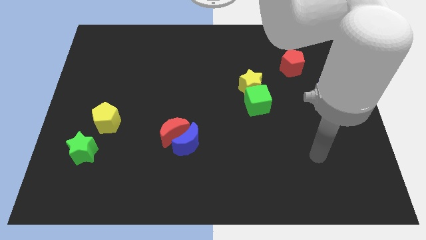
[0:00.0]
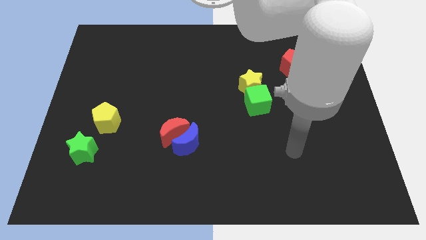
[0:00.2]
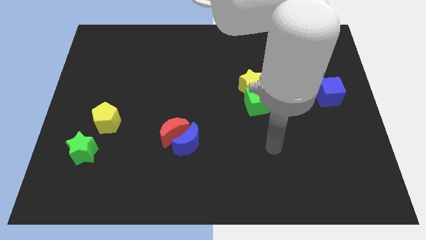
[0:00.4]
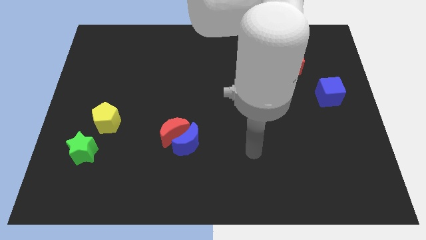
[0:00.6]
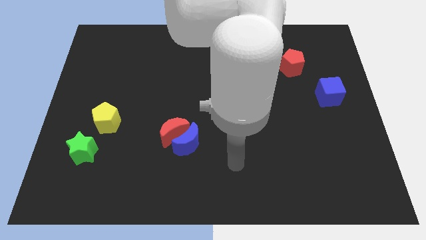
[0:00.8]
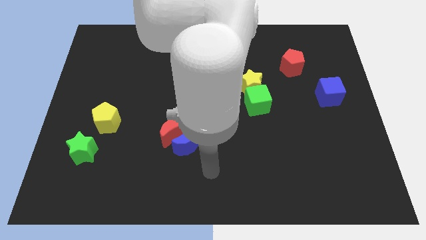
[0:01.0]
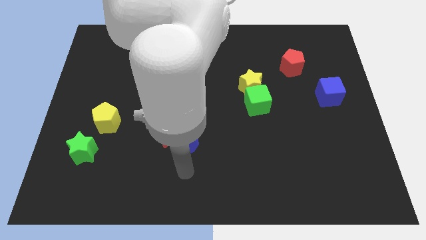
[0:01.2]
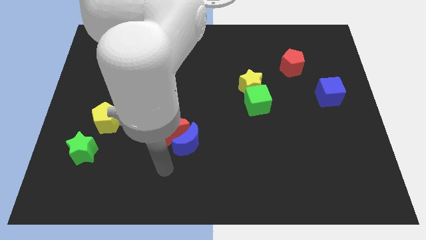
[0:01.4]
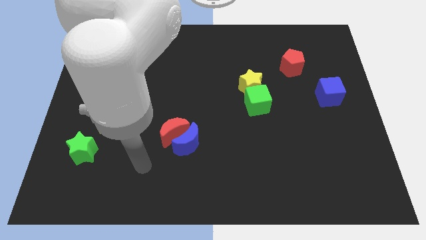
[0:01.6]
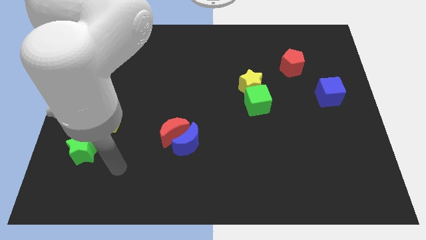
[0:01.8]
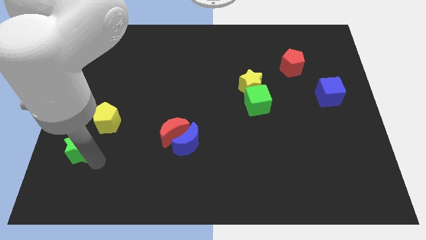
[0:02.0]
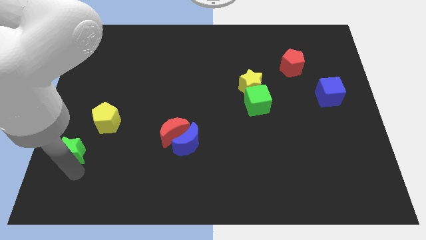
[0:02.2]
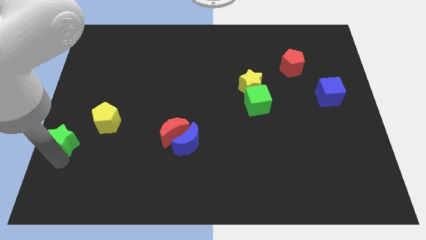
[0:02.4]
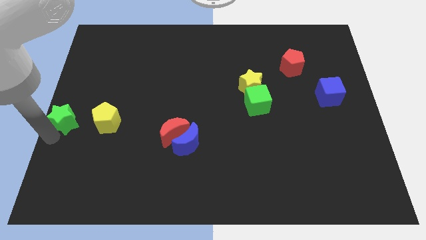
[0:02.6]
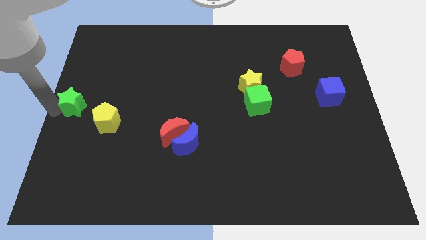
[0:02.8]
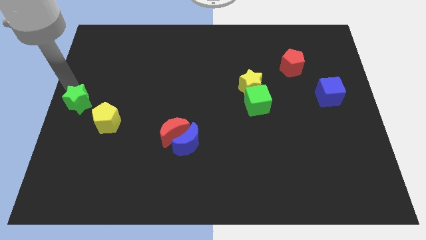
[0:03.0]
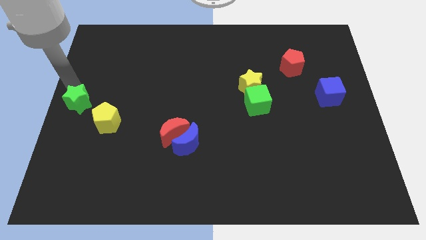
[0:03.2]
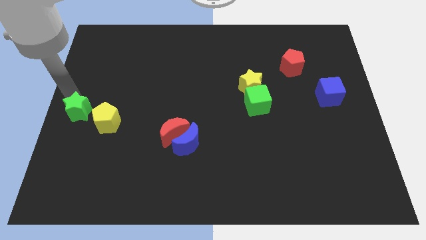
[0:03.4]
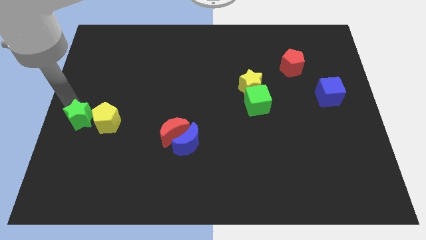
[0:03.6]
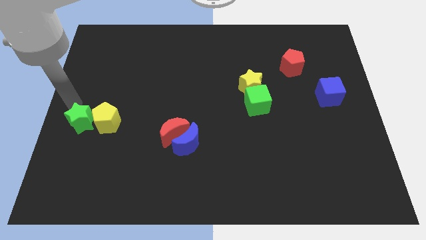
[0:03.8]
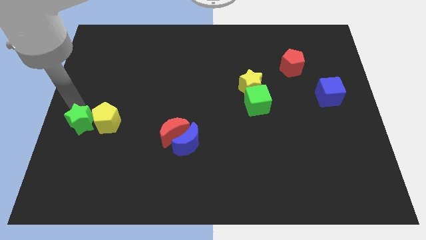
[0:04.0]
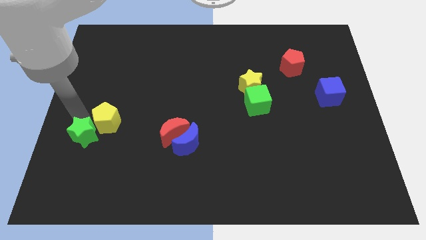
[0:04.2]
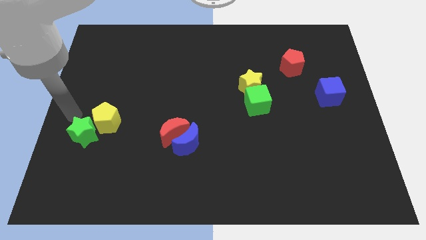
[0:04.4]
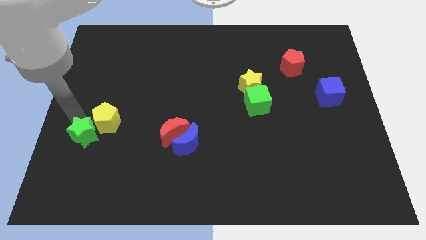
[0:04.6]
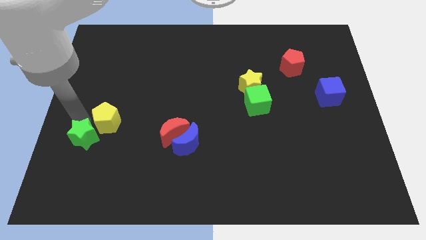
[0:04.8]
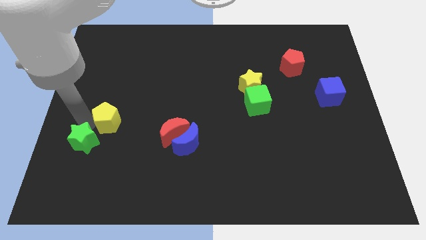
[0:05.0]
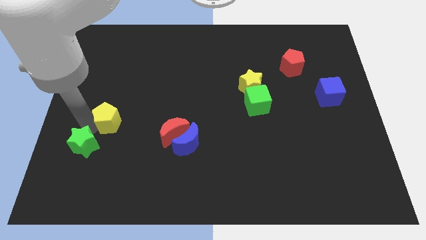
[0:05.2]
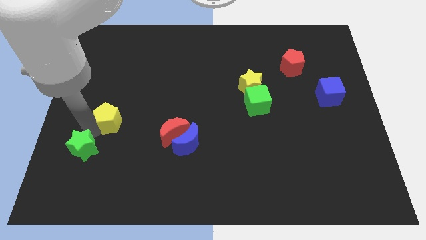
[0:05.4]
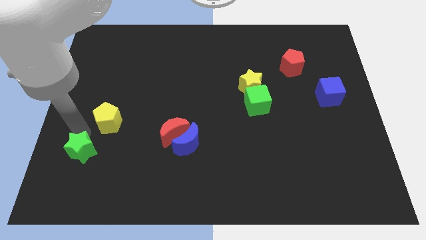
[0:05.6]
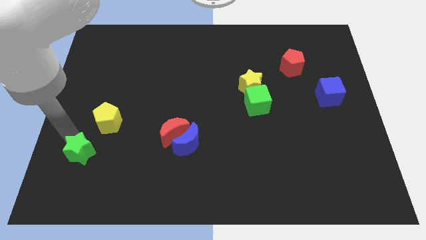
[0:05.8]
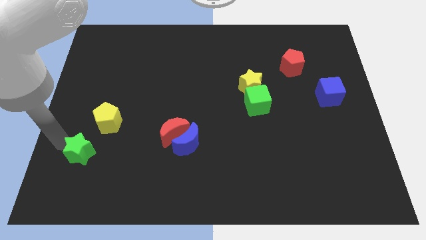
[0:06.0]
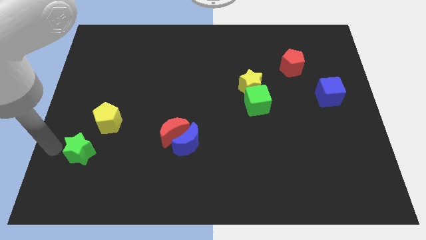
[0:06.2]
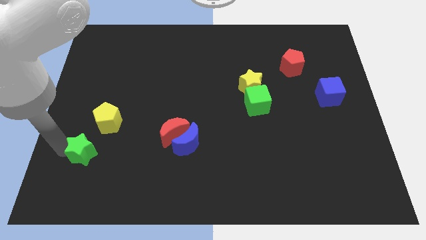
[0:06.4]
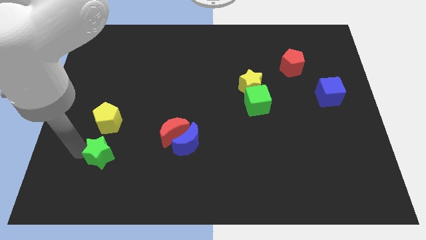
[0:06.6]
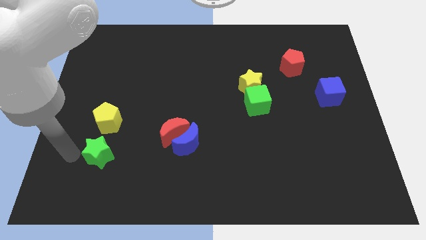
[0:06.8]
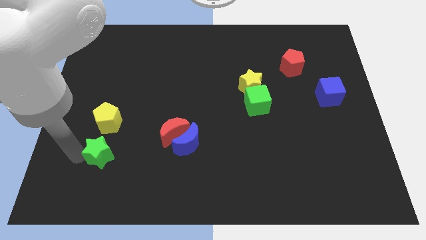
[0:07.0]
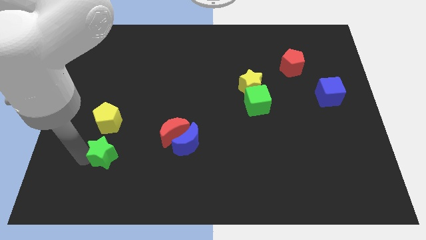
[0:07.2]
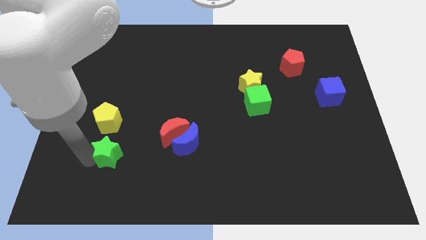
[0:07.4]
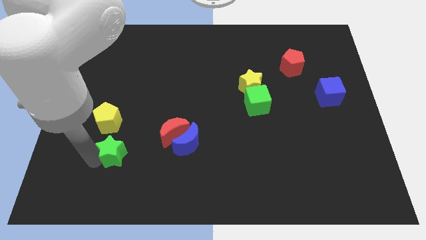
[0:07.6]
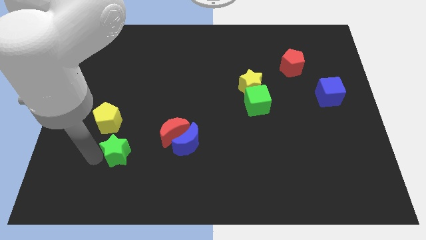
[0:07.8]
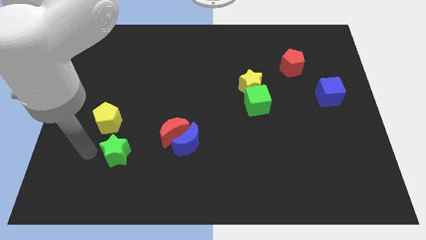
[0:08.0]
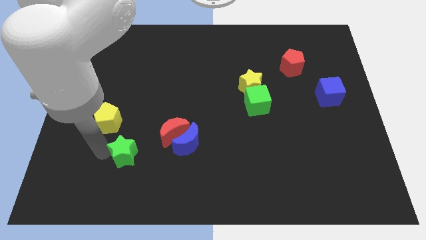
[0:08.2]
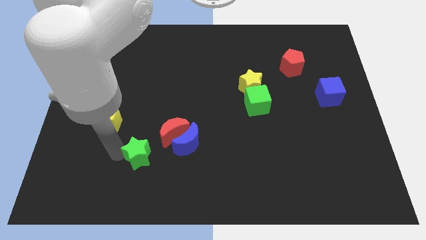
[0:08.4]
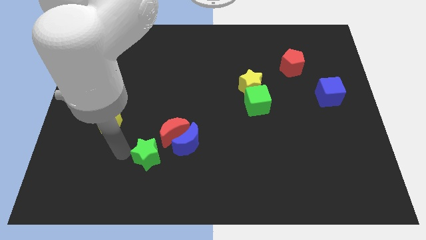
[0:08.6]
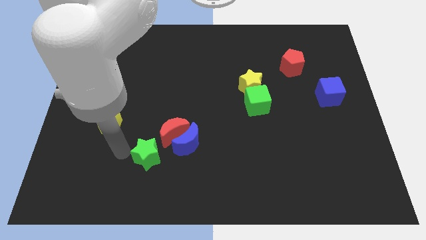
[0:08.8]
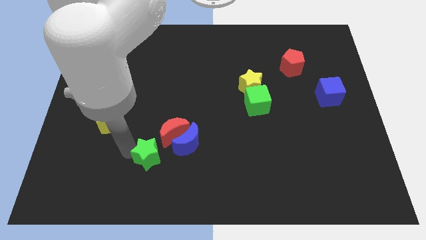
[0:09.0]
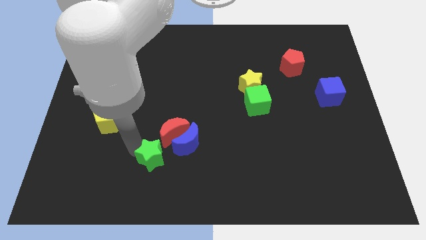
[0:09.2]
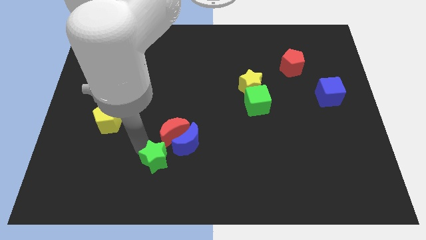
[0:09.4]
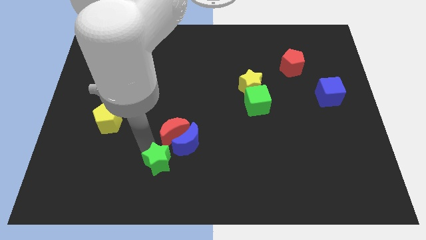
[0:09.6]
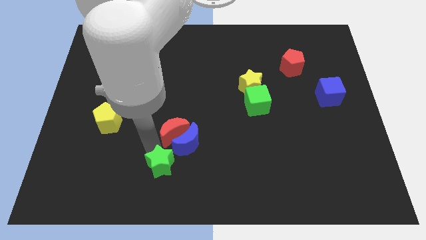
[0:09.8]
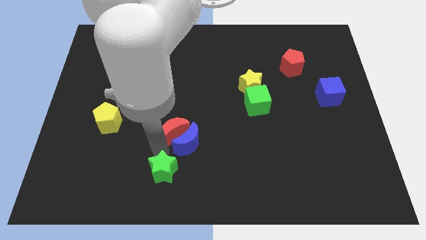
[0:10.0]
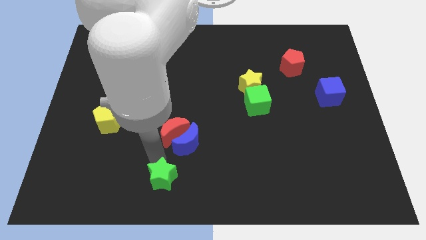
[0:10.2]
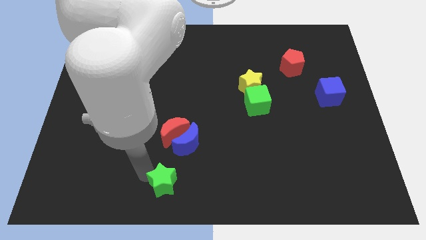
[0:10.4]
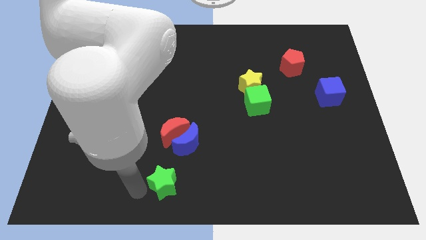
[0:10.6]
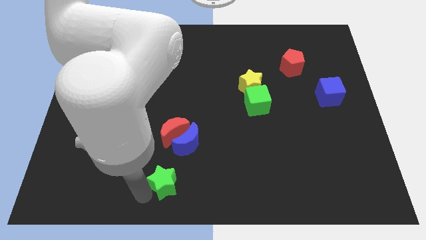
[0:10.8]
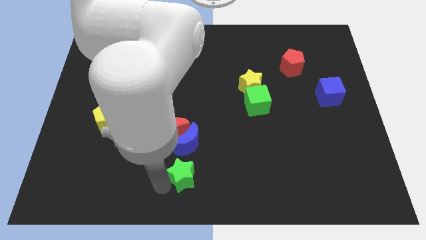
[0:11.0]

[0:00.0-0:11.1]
slide the green star right

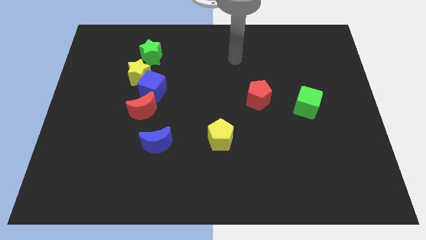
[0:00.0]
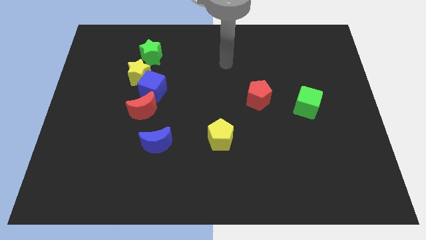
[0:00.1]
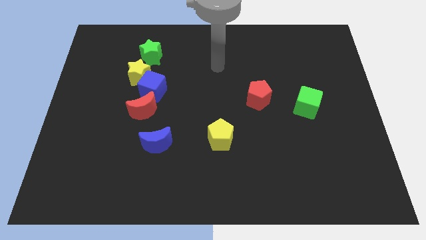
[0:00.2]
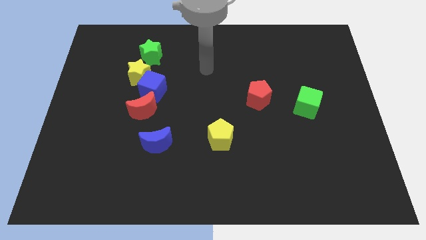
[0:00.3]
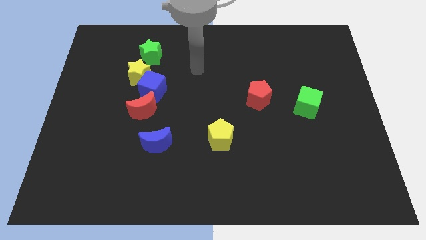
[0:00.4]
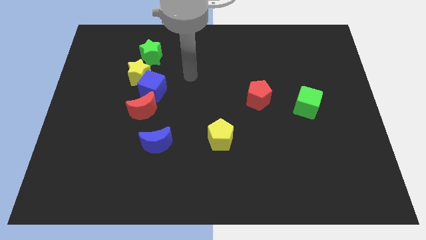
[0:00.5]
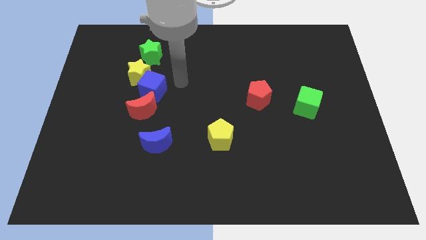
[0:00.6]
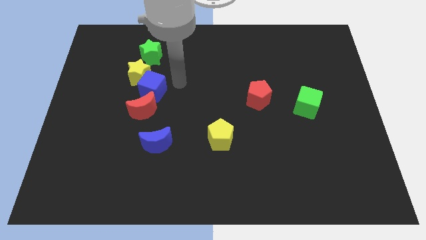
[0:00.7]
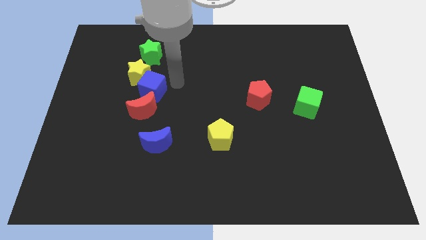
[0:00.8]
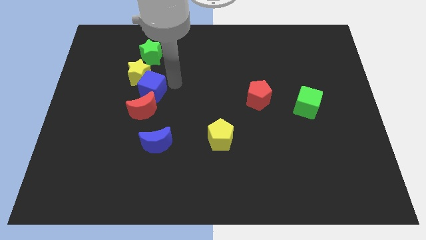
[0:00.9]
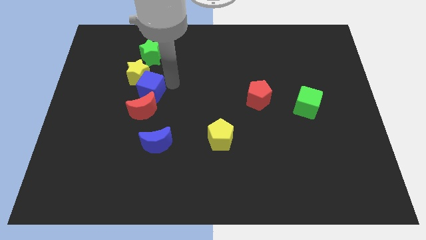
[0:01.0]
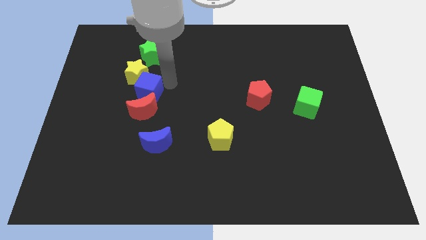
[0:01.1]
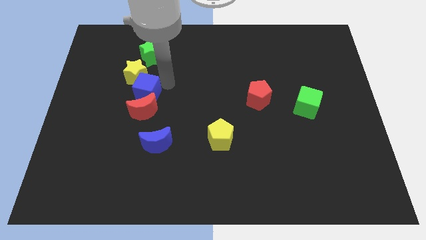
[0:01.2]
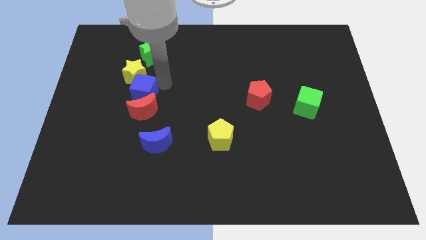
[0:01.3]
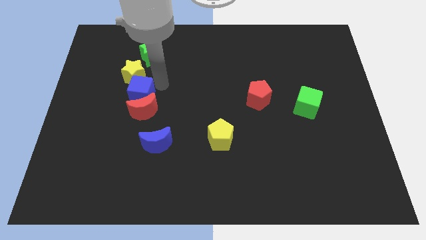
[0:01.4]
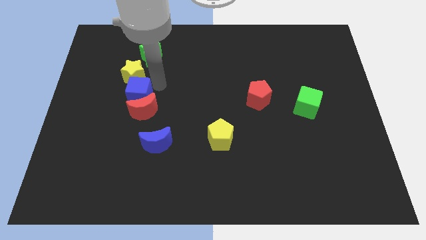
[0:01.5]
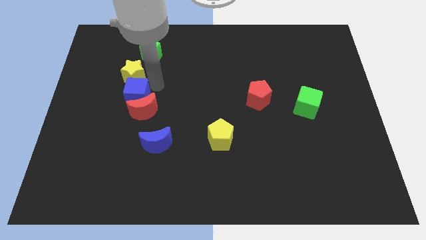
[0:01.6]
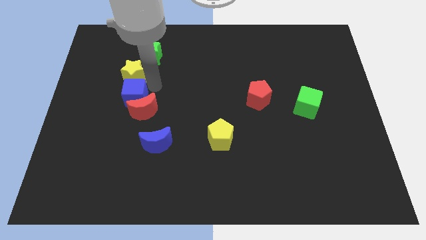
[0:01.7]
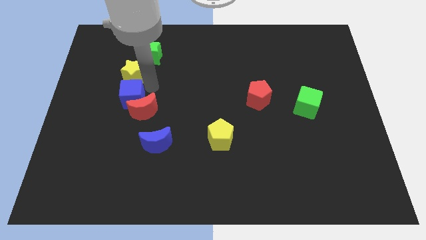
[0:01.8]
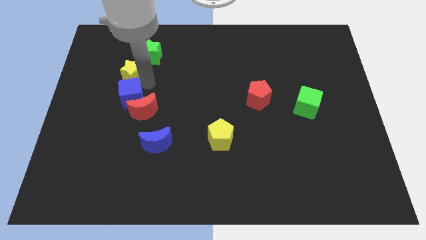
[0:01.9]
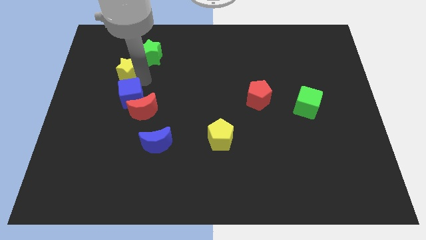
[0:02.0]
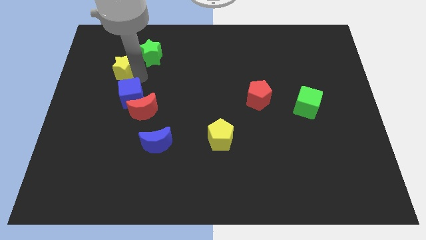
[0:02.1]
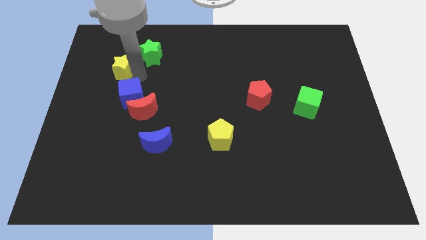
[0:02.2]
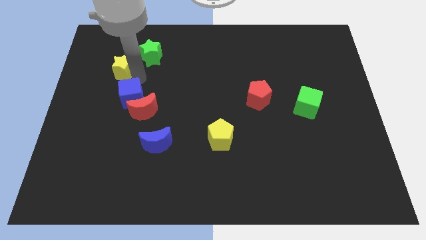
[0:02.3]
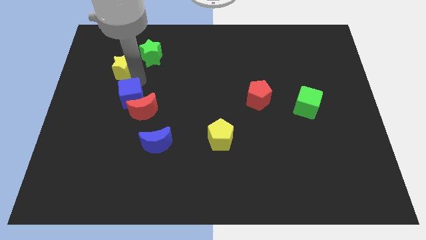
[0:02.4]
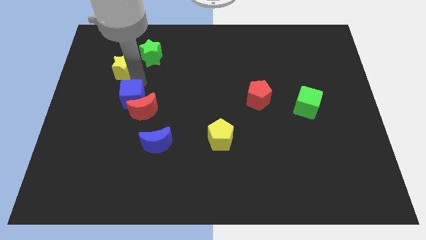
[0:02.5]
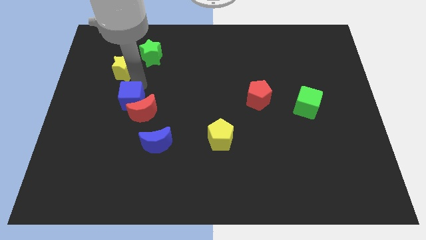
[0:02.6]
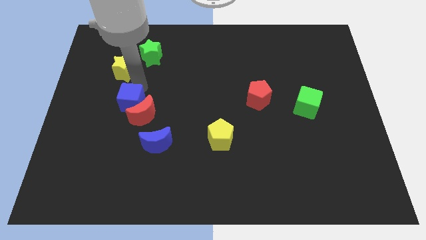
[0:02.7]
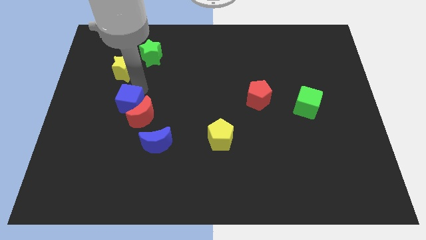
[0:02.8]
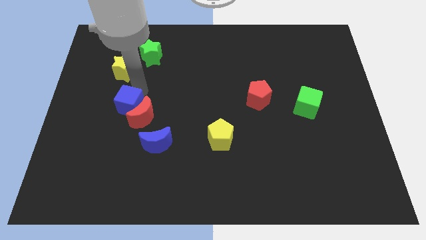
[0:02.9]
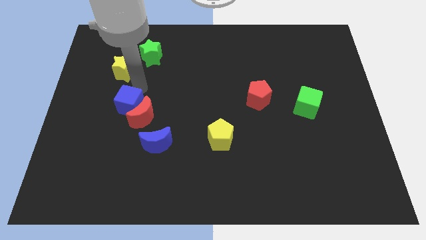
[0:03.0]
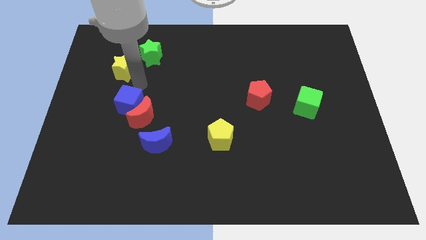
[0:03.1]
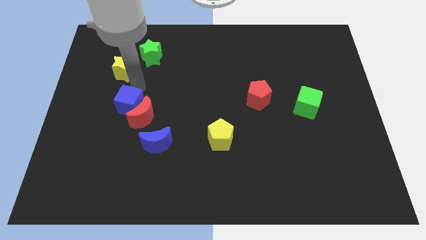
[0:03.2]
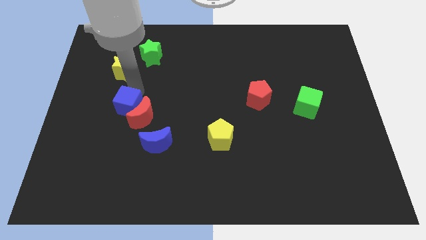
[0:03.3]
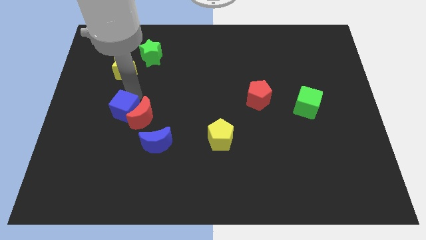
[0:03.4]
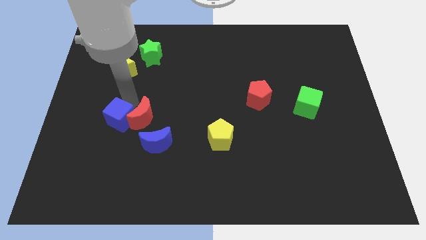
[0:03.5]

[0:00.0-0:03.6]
slightly move the blue cube down
